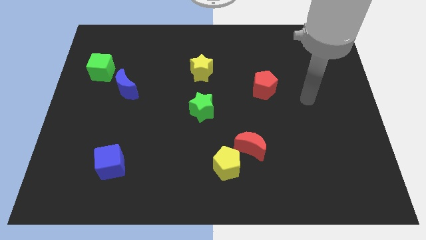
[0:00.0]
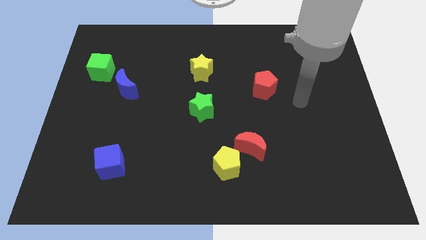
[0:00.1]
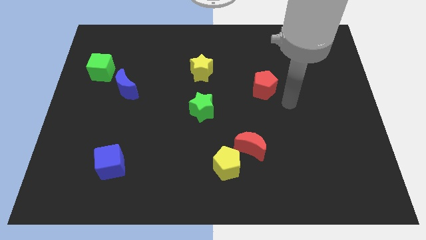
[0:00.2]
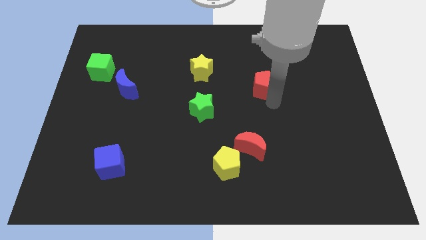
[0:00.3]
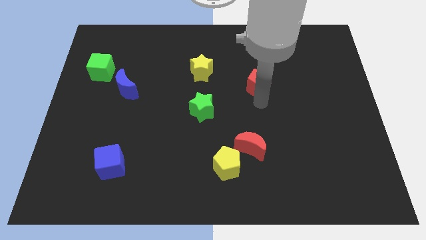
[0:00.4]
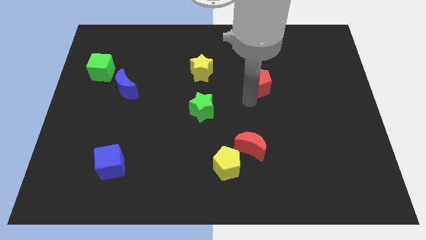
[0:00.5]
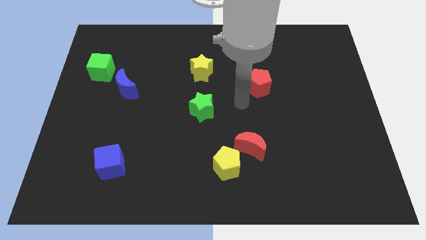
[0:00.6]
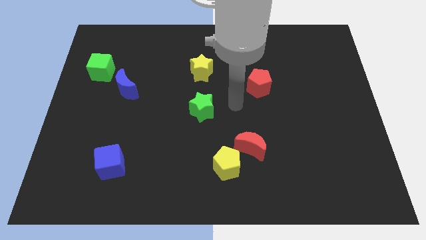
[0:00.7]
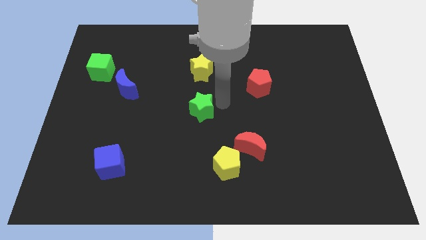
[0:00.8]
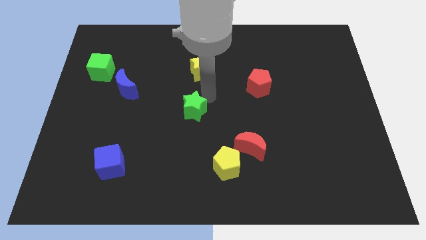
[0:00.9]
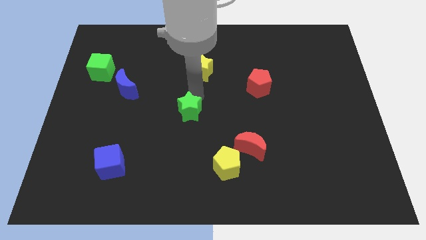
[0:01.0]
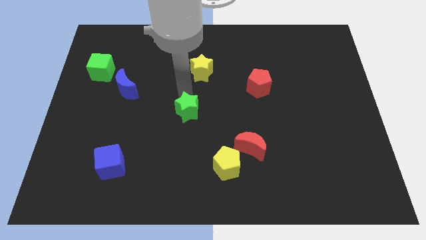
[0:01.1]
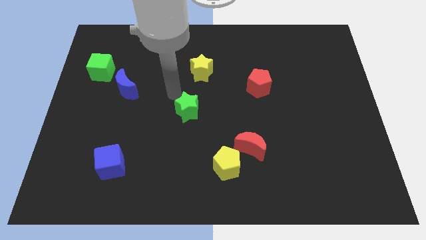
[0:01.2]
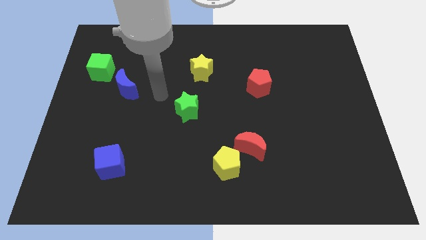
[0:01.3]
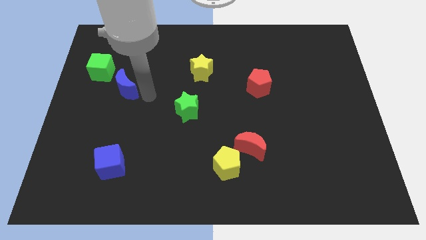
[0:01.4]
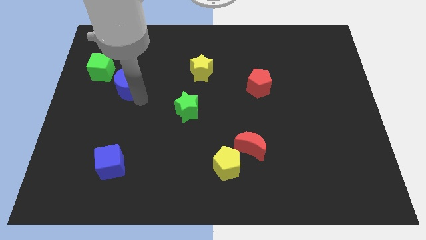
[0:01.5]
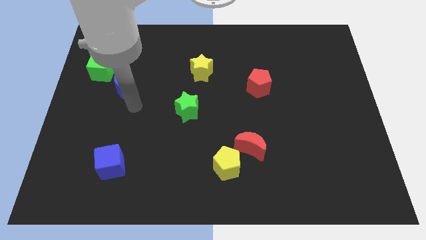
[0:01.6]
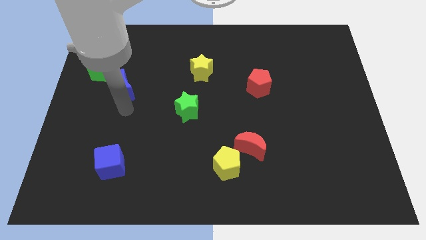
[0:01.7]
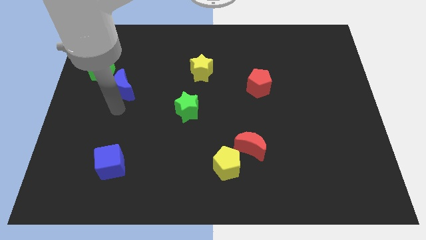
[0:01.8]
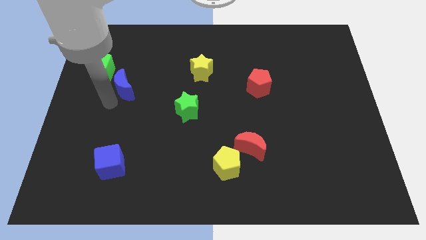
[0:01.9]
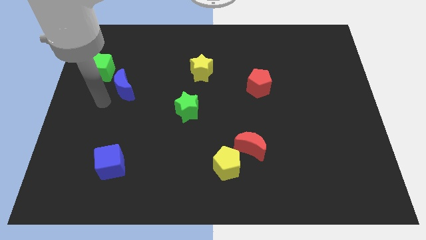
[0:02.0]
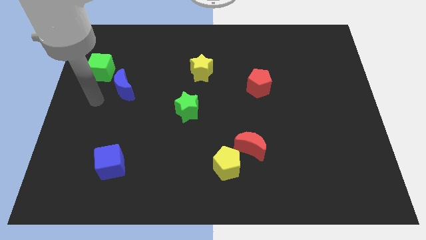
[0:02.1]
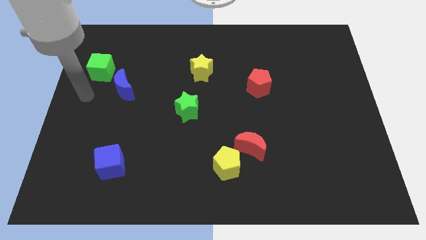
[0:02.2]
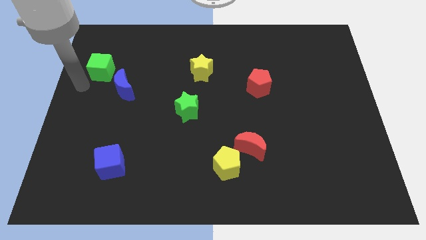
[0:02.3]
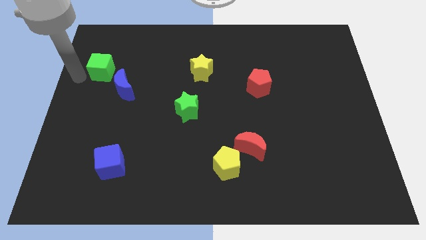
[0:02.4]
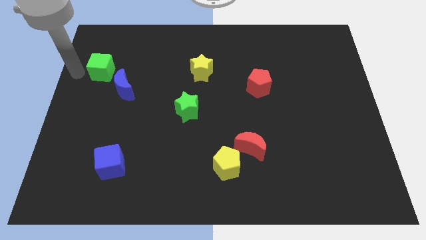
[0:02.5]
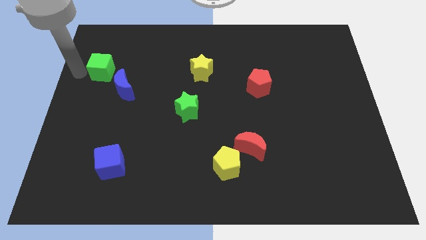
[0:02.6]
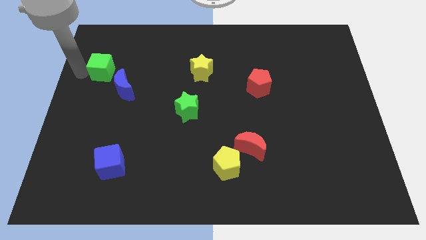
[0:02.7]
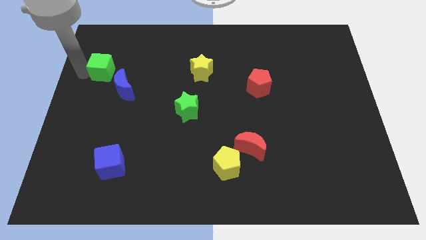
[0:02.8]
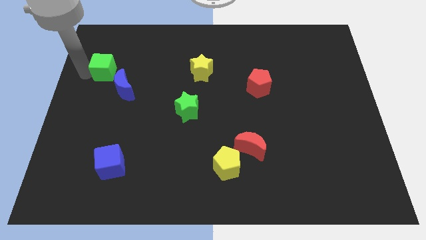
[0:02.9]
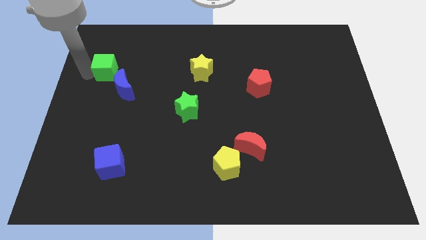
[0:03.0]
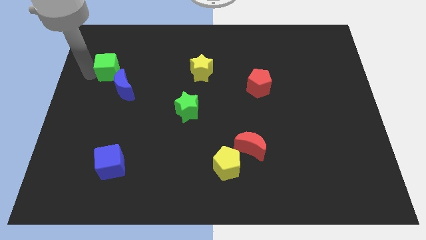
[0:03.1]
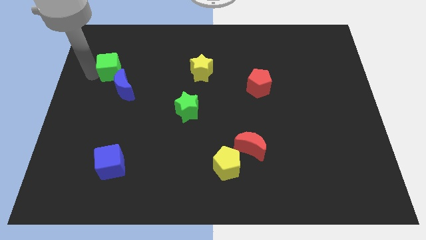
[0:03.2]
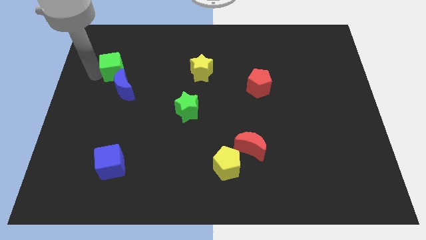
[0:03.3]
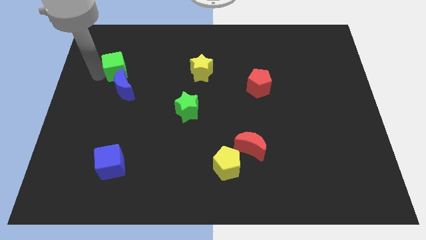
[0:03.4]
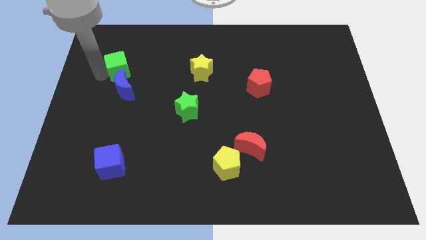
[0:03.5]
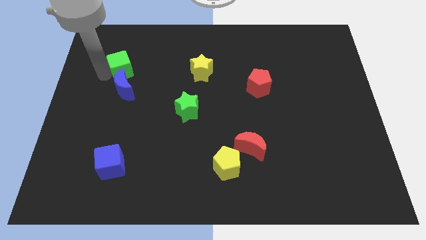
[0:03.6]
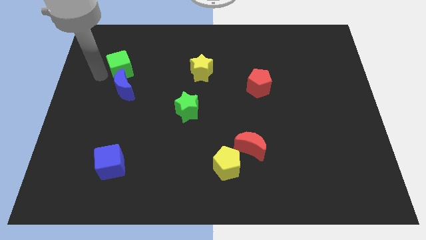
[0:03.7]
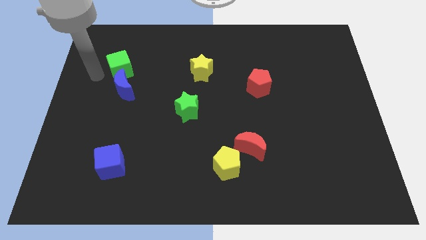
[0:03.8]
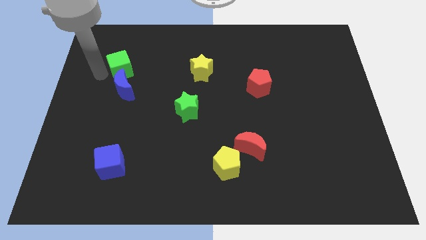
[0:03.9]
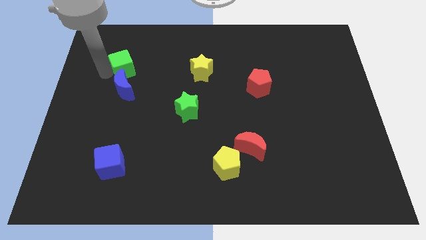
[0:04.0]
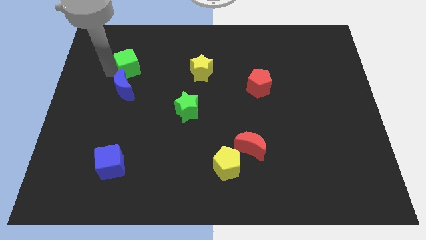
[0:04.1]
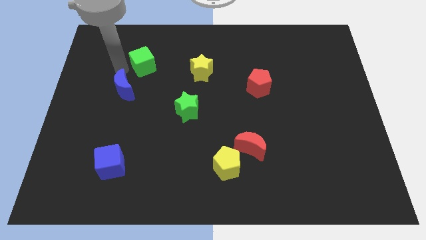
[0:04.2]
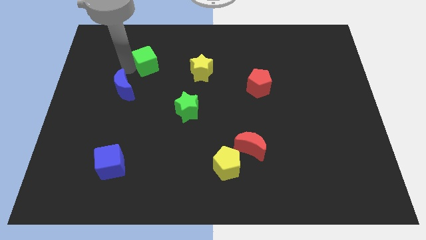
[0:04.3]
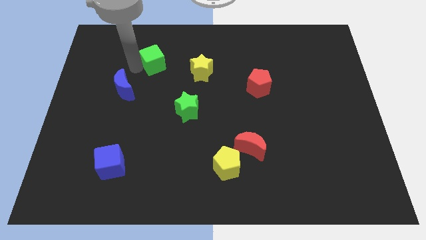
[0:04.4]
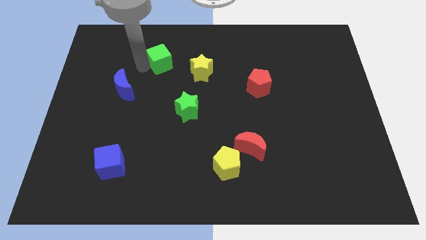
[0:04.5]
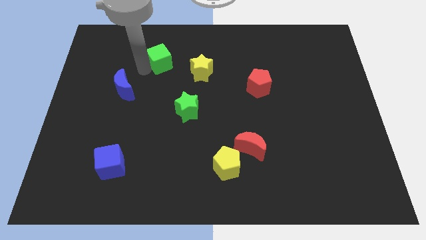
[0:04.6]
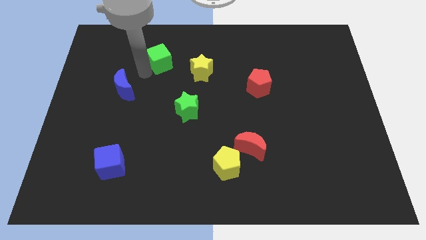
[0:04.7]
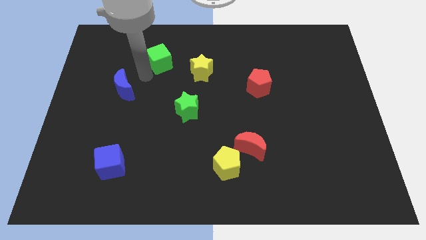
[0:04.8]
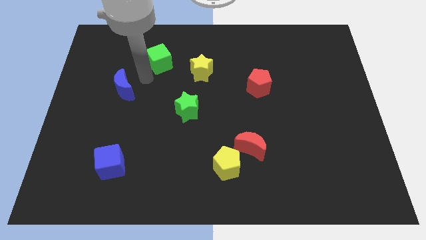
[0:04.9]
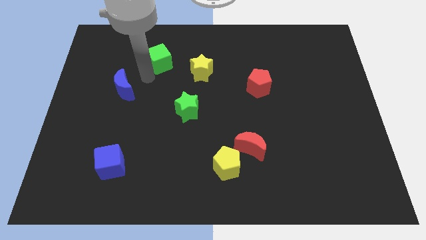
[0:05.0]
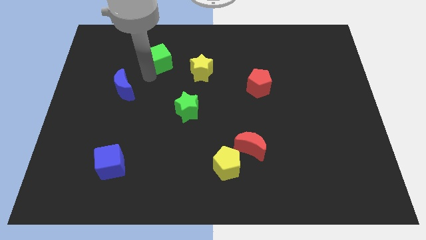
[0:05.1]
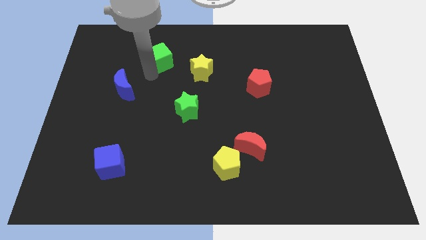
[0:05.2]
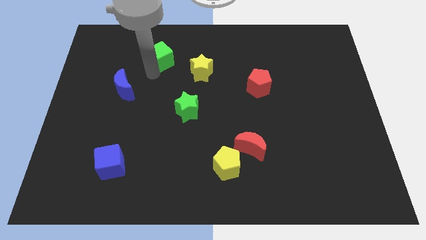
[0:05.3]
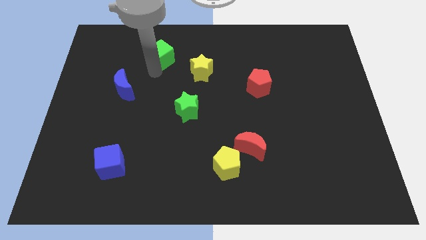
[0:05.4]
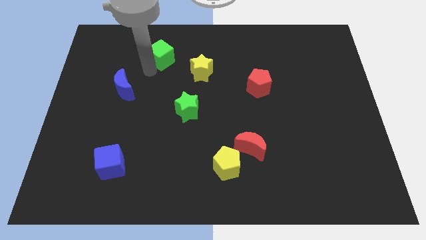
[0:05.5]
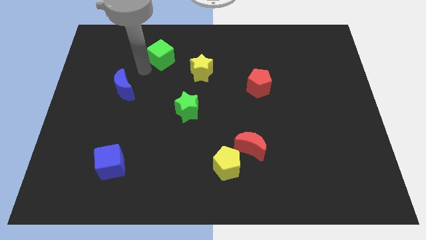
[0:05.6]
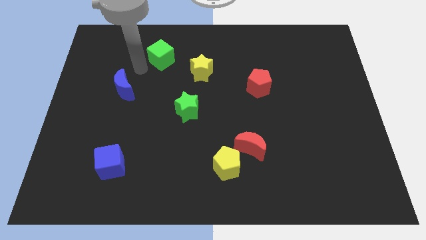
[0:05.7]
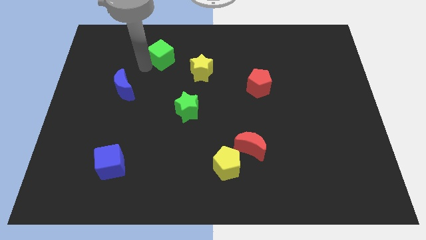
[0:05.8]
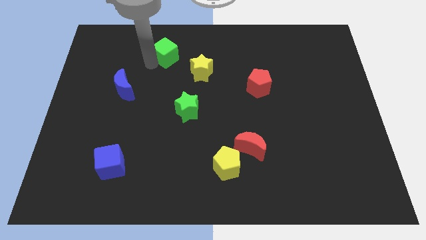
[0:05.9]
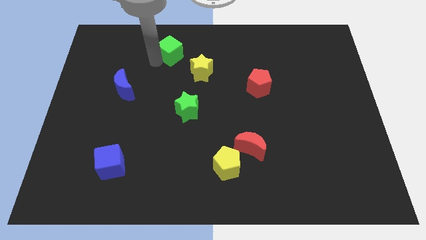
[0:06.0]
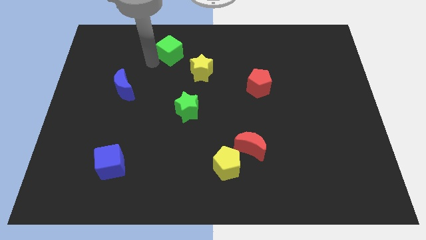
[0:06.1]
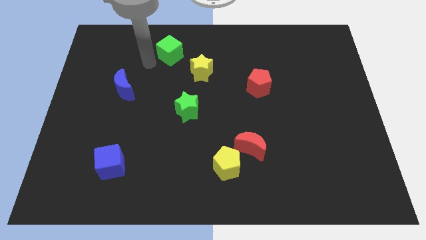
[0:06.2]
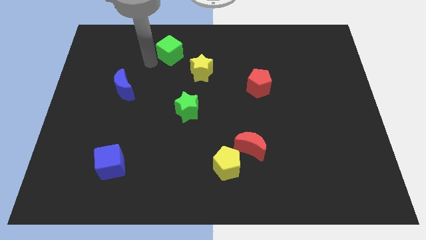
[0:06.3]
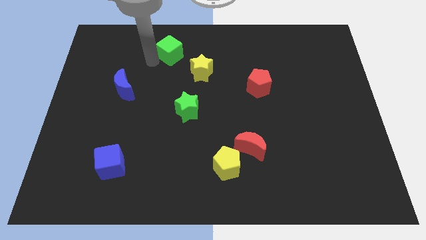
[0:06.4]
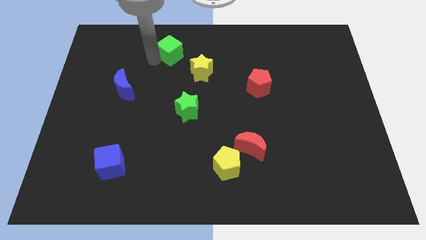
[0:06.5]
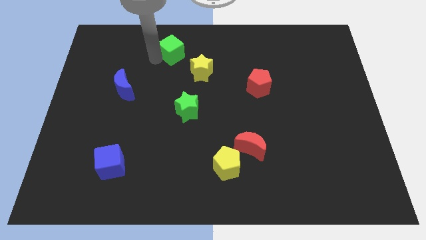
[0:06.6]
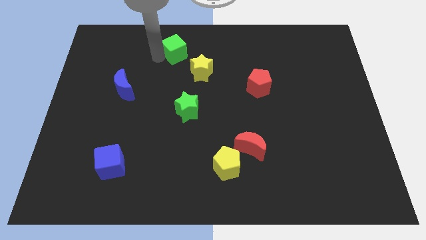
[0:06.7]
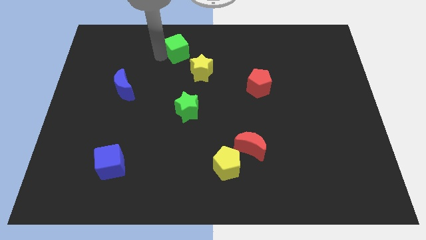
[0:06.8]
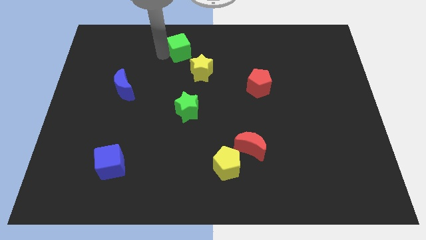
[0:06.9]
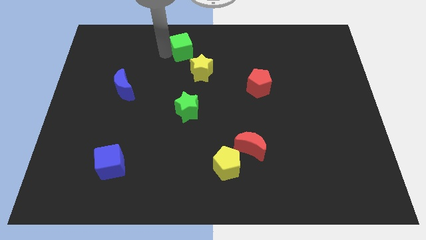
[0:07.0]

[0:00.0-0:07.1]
put the green cube to the top
